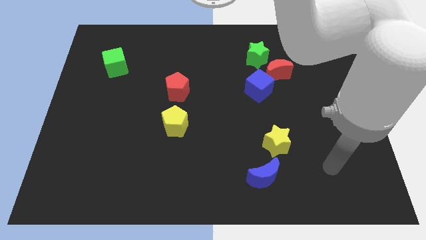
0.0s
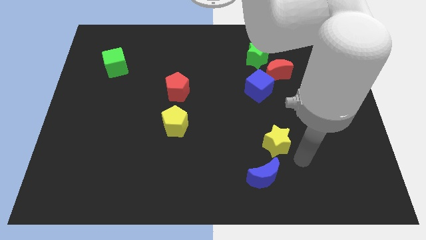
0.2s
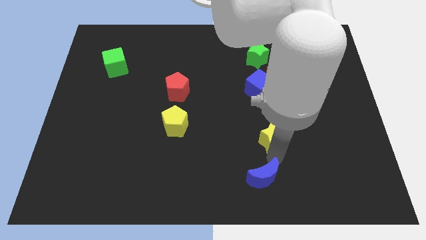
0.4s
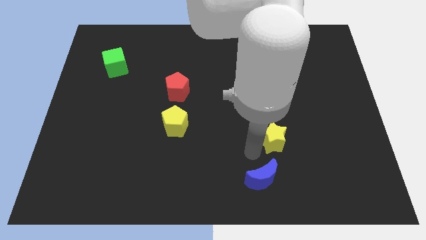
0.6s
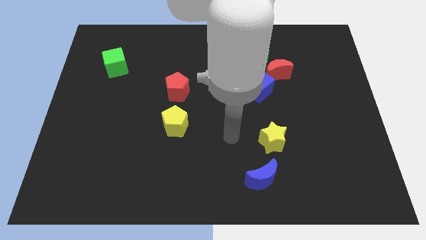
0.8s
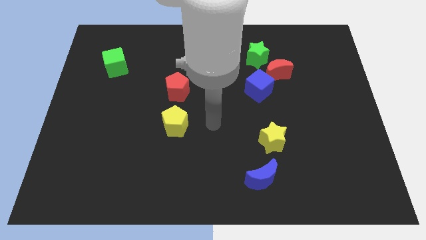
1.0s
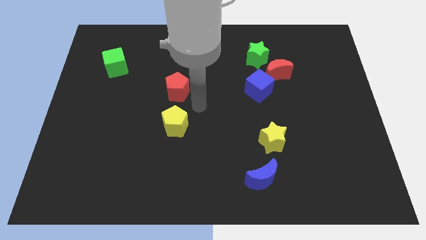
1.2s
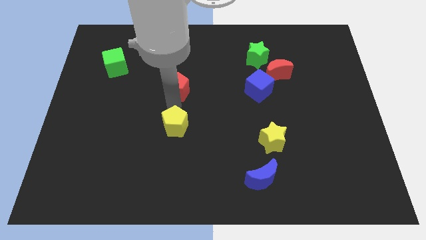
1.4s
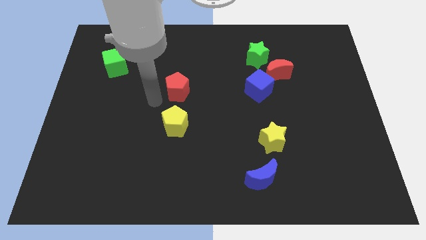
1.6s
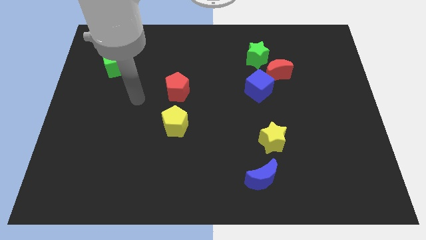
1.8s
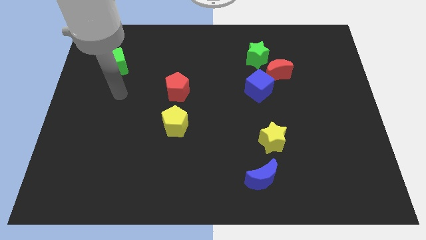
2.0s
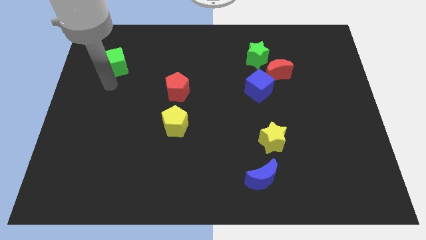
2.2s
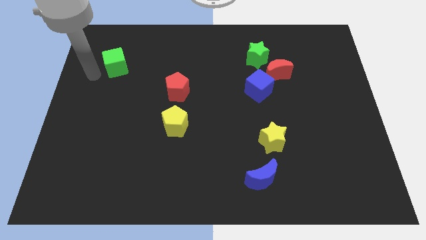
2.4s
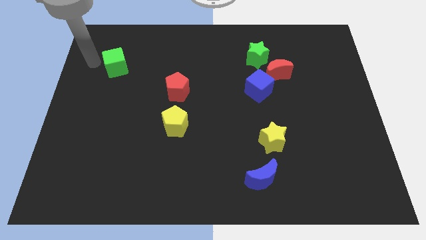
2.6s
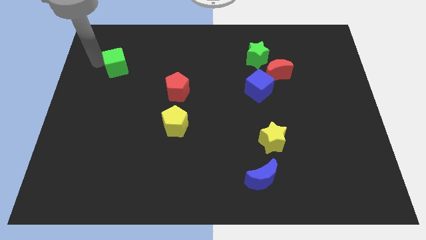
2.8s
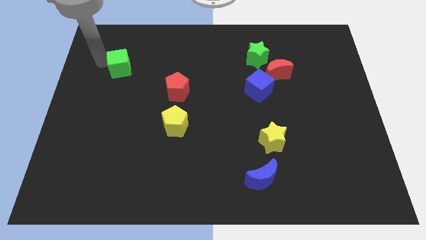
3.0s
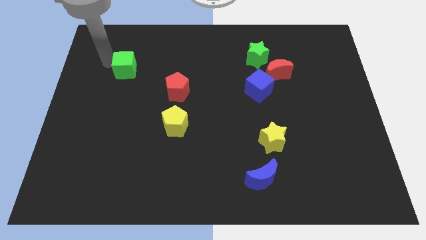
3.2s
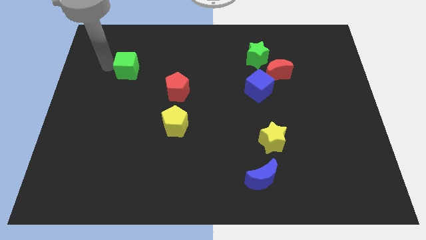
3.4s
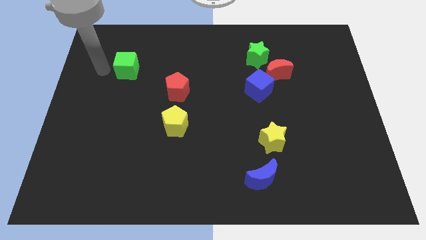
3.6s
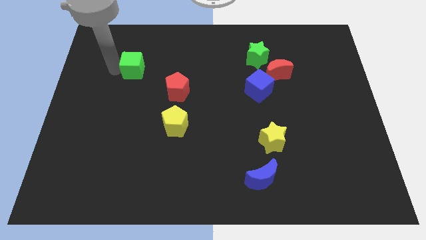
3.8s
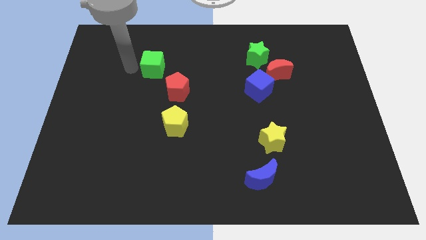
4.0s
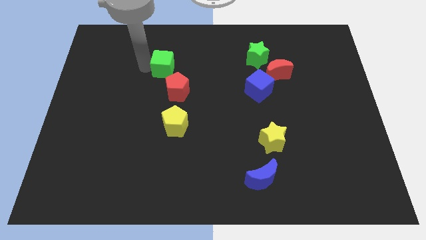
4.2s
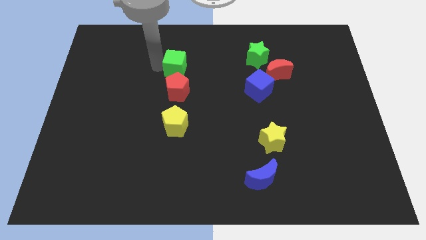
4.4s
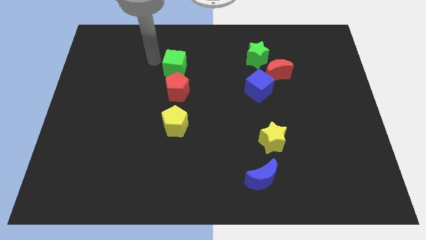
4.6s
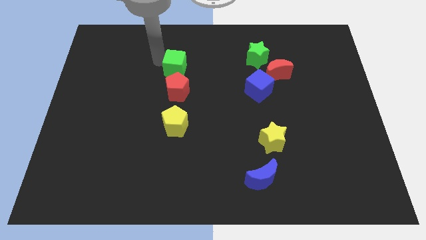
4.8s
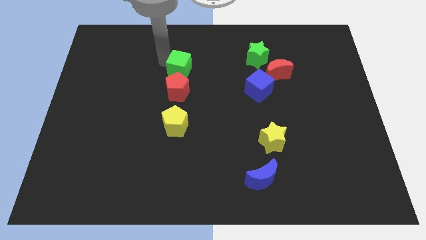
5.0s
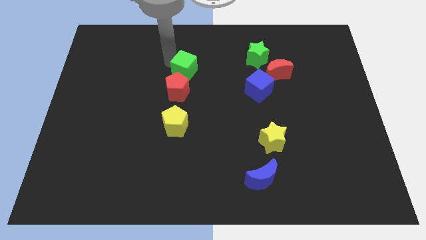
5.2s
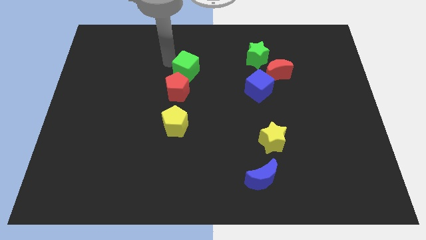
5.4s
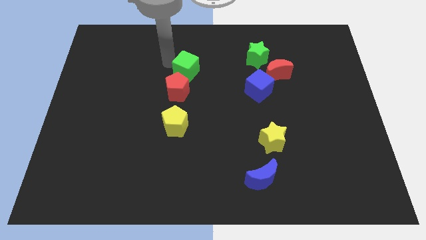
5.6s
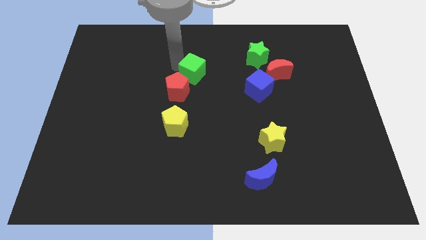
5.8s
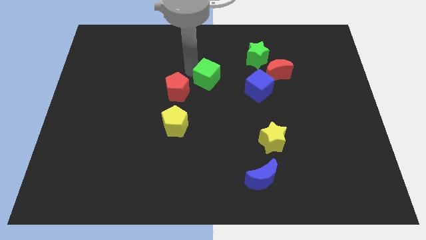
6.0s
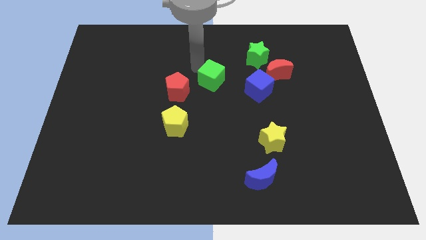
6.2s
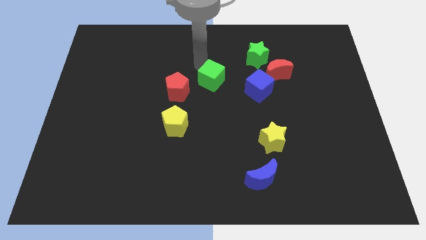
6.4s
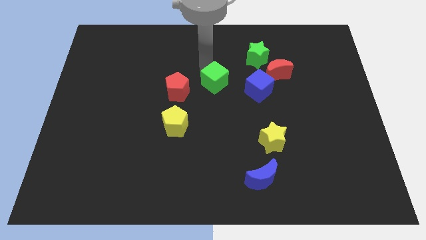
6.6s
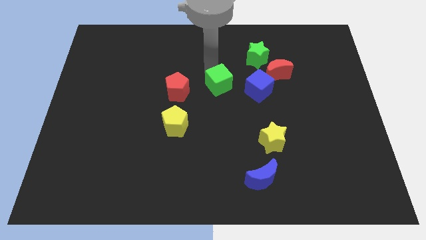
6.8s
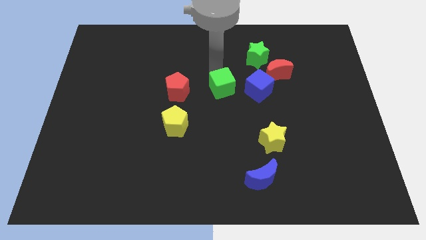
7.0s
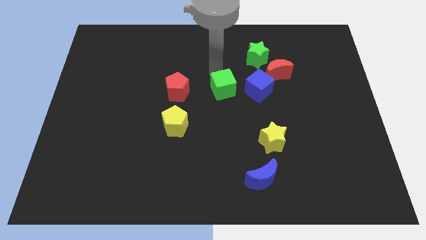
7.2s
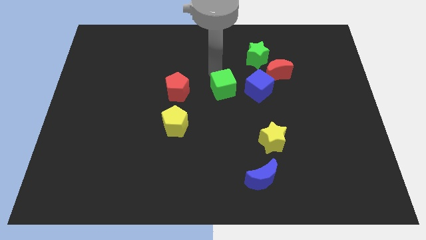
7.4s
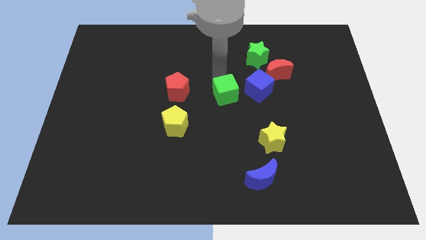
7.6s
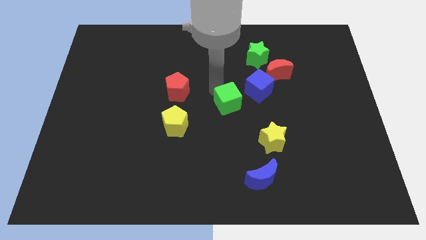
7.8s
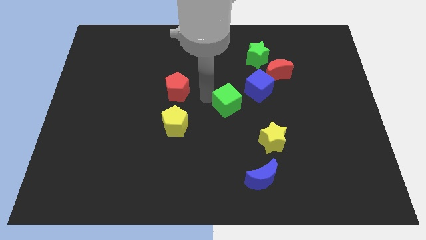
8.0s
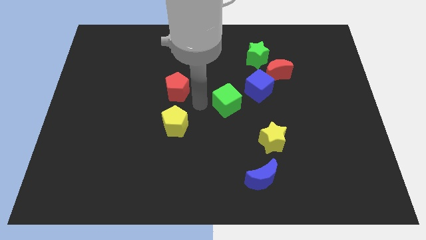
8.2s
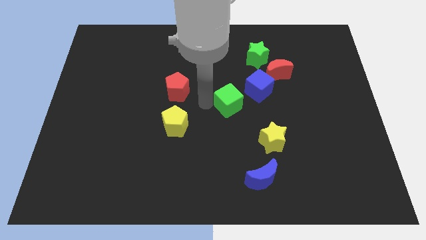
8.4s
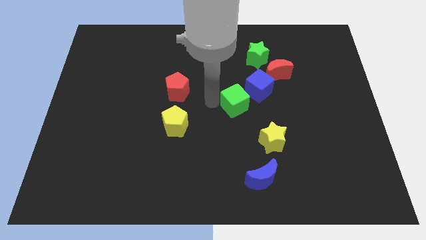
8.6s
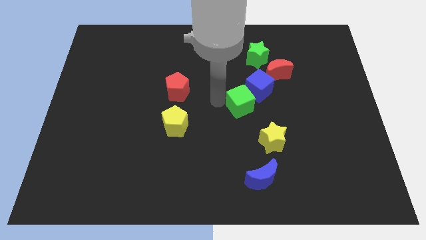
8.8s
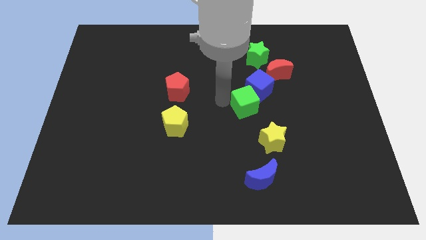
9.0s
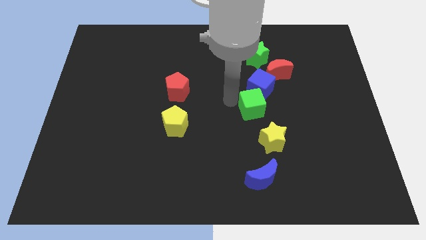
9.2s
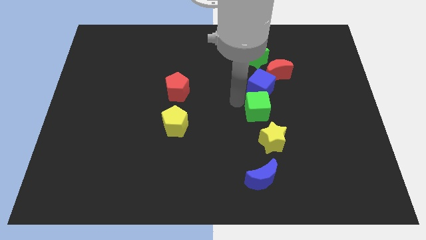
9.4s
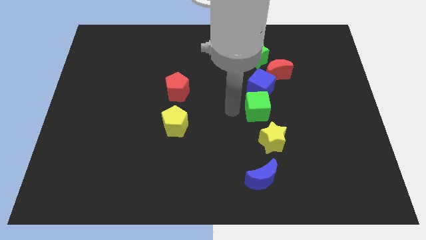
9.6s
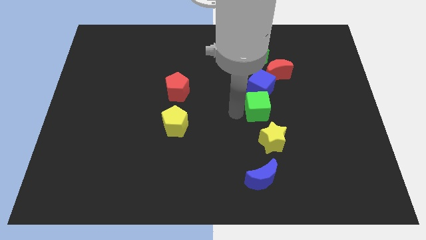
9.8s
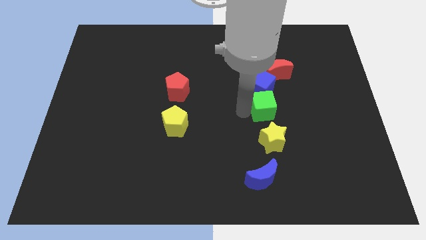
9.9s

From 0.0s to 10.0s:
slide the green cube below the red moon

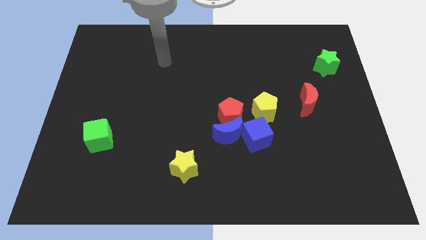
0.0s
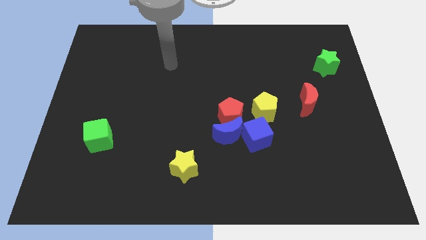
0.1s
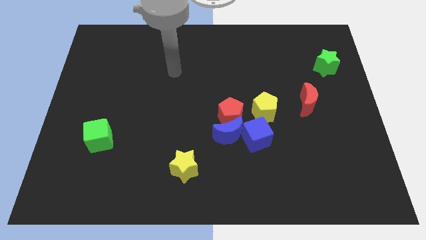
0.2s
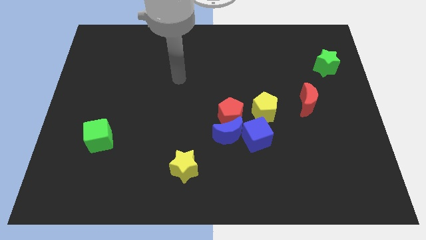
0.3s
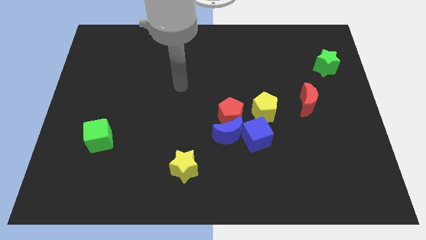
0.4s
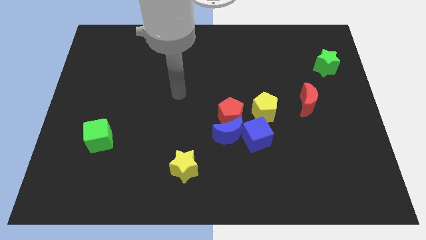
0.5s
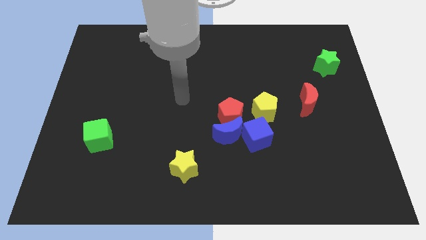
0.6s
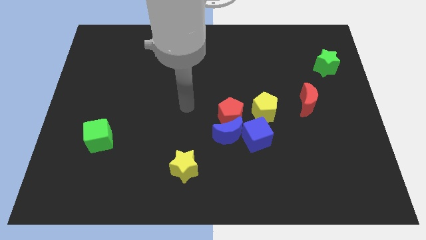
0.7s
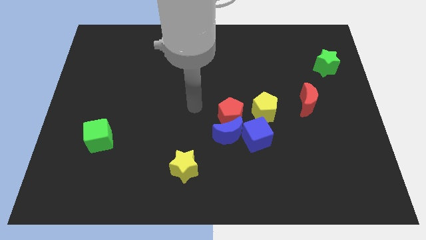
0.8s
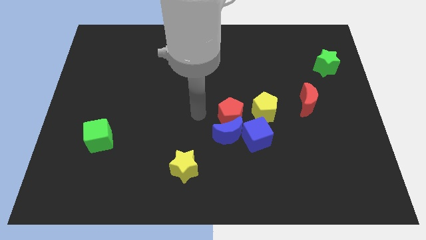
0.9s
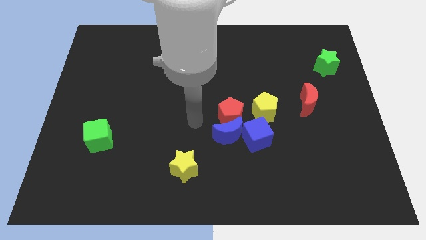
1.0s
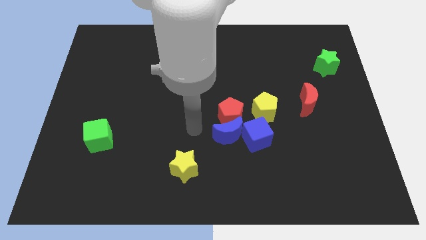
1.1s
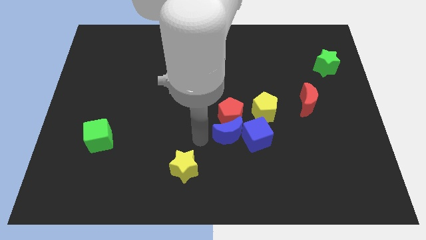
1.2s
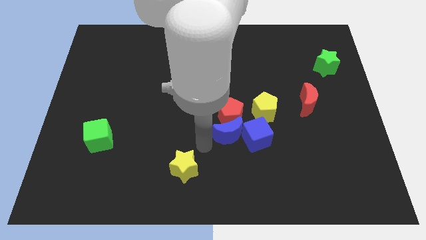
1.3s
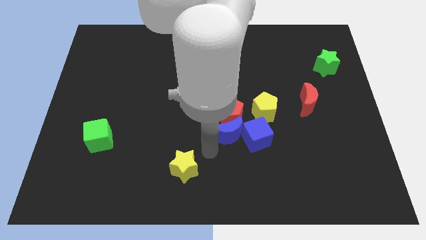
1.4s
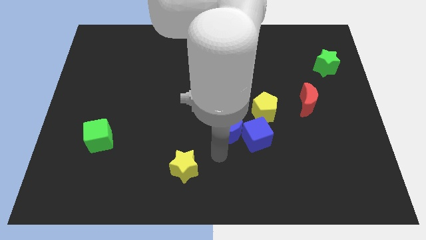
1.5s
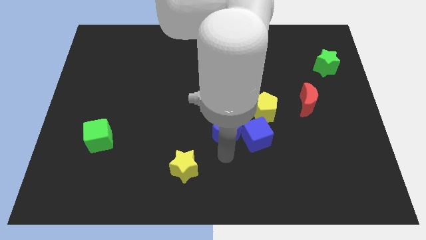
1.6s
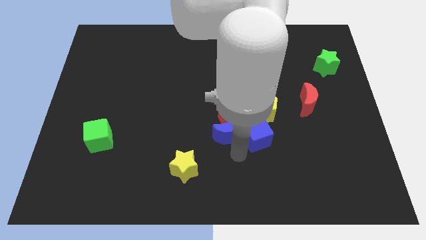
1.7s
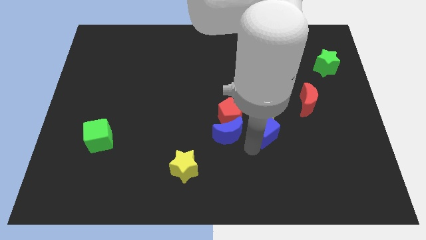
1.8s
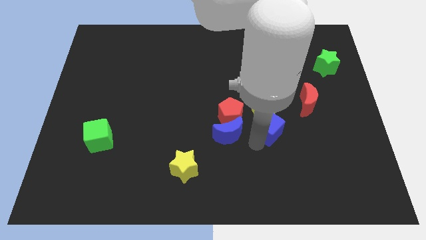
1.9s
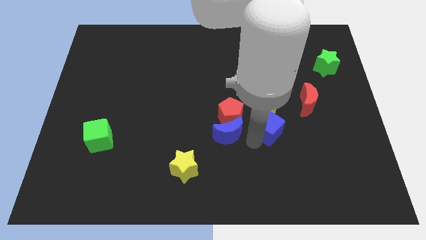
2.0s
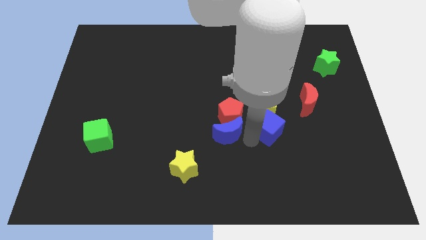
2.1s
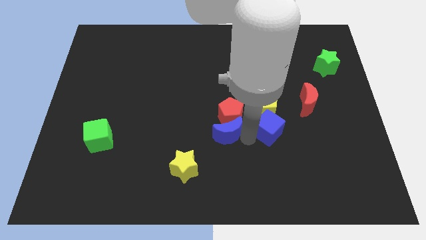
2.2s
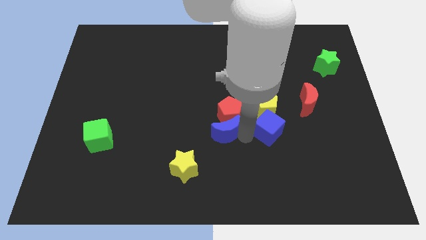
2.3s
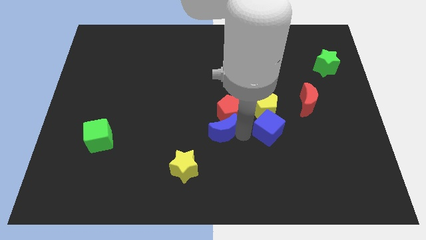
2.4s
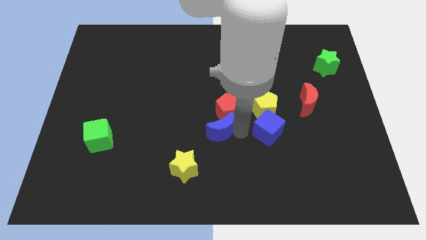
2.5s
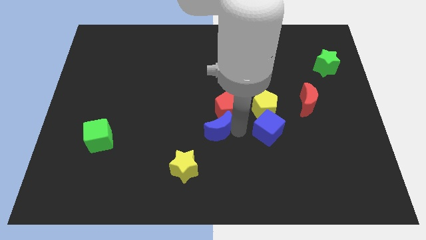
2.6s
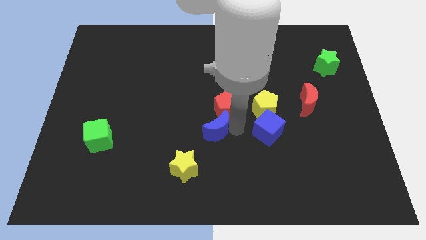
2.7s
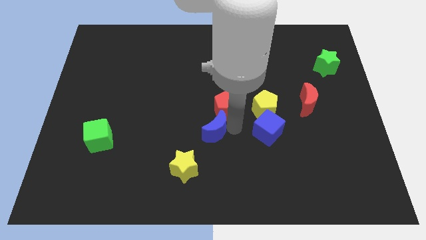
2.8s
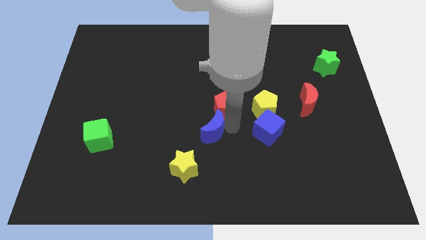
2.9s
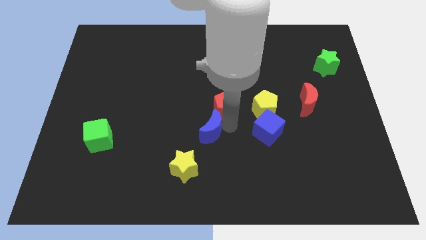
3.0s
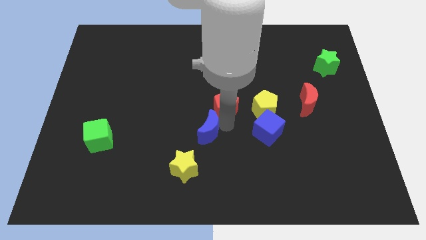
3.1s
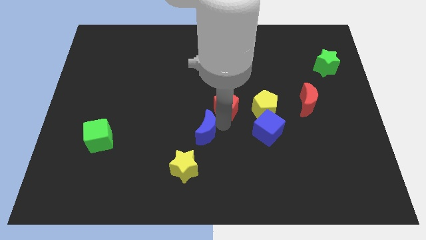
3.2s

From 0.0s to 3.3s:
slide the blue moon to the top of the yellow star
